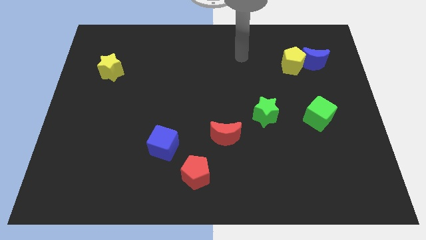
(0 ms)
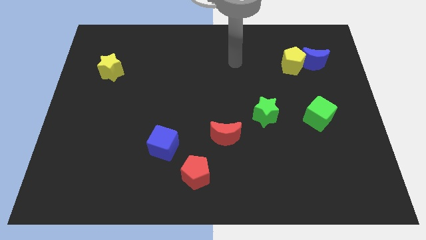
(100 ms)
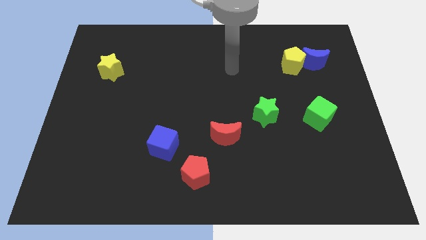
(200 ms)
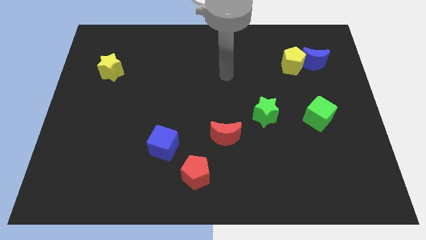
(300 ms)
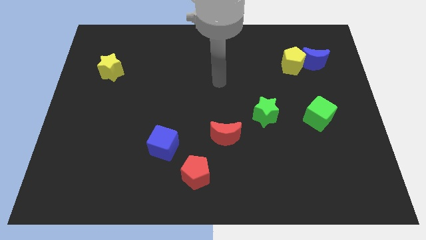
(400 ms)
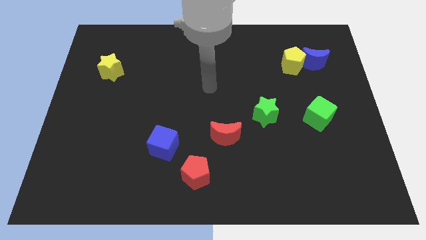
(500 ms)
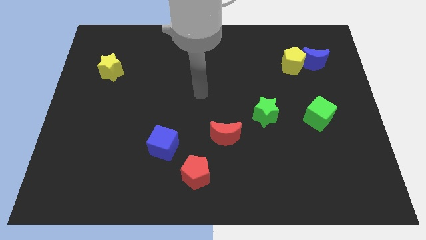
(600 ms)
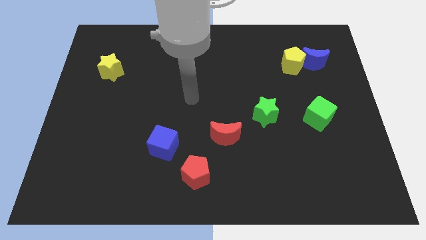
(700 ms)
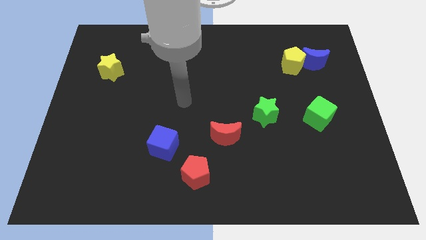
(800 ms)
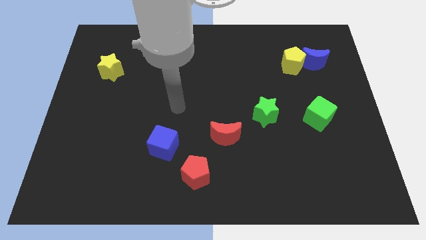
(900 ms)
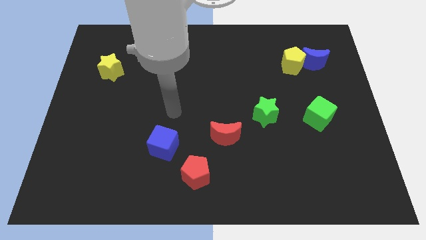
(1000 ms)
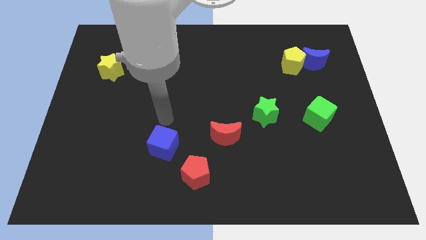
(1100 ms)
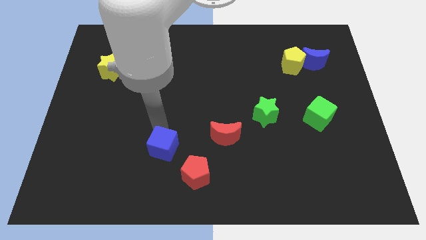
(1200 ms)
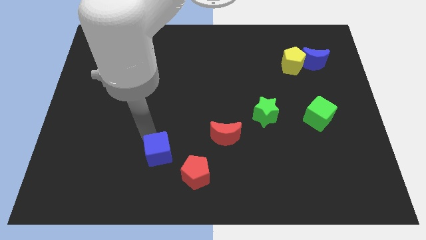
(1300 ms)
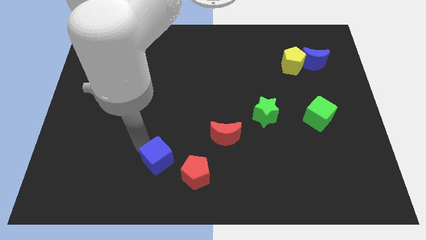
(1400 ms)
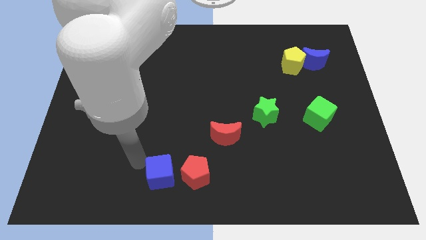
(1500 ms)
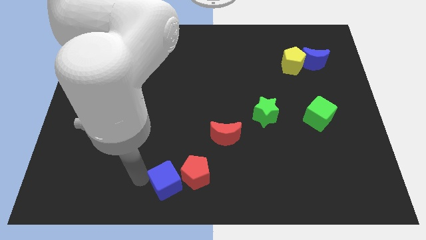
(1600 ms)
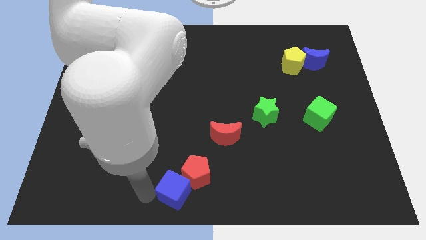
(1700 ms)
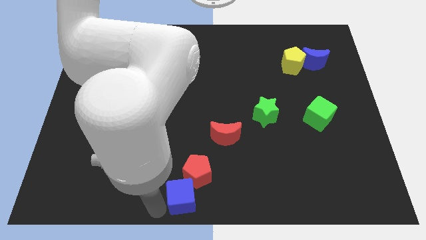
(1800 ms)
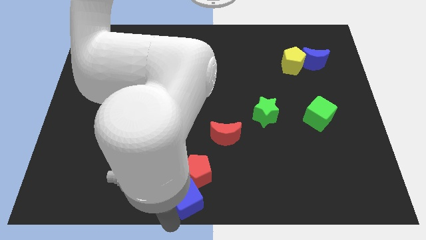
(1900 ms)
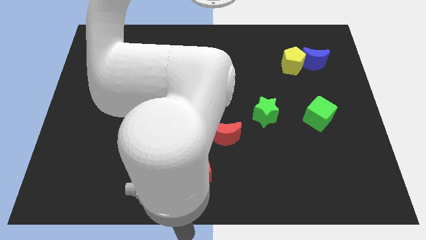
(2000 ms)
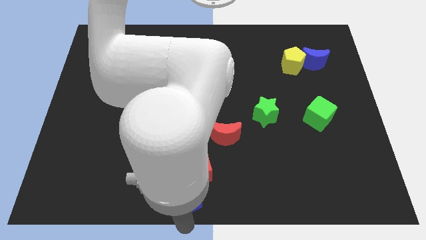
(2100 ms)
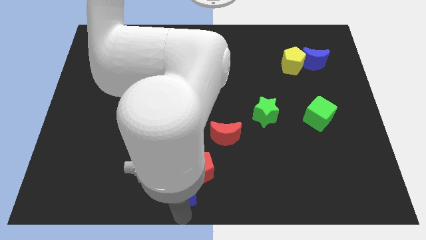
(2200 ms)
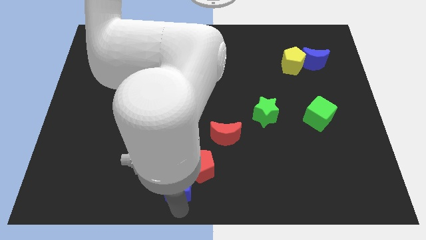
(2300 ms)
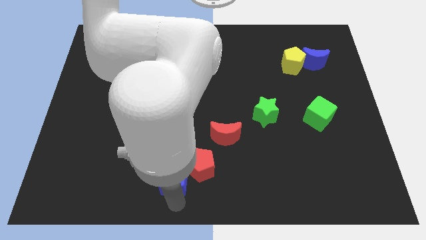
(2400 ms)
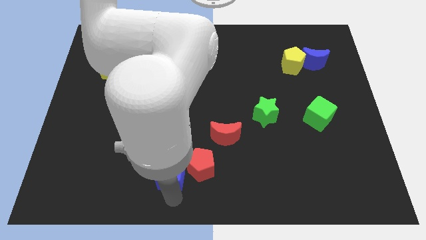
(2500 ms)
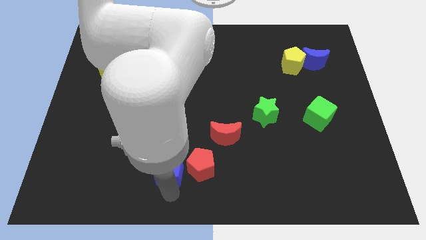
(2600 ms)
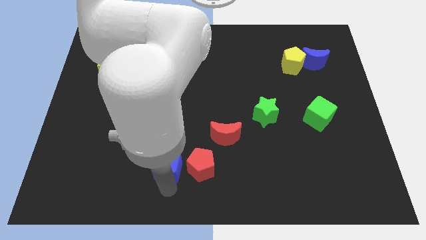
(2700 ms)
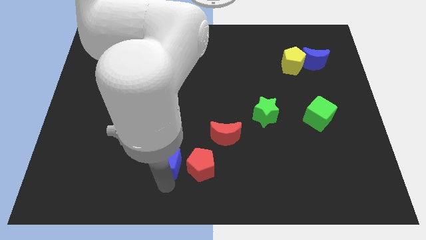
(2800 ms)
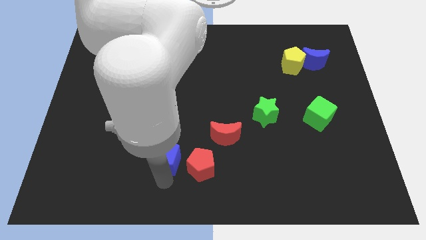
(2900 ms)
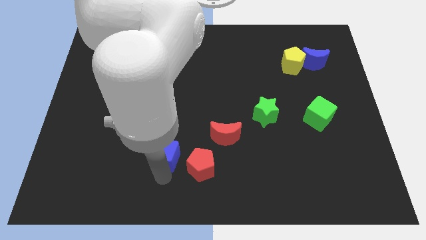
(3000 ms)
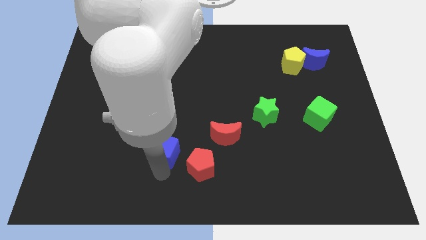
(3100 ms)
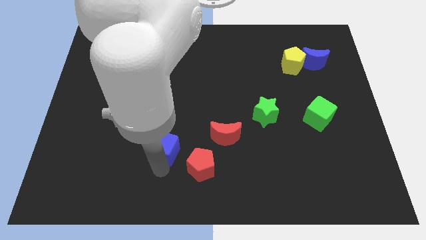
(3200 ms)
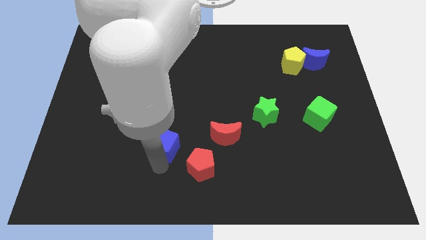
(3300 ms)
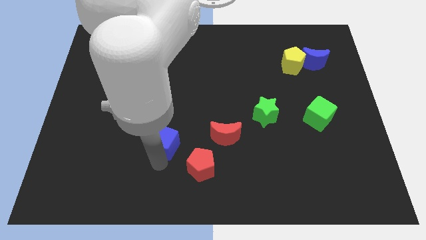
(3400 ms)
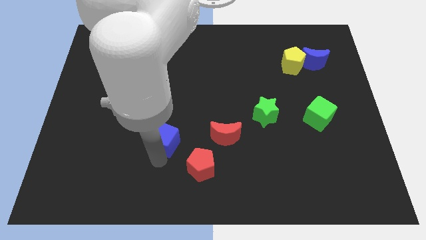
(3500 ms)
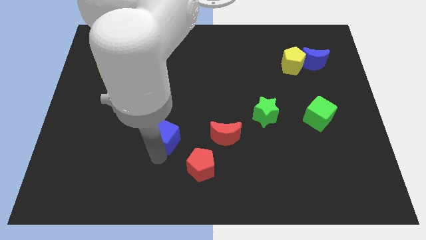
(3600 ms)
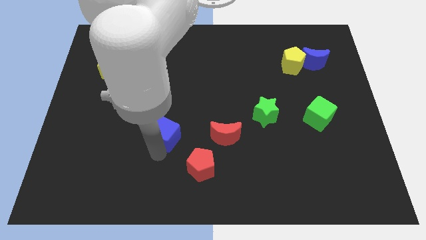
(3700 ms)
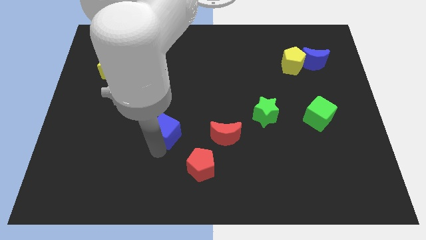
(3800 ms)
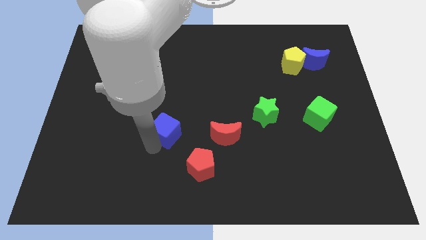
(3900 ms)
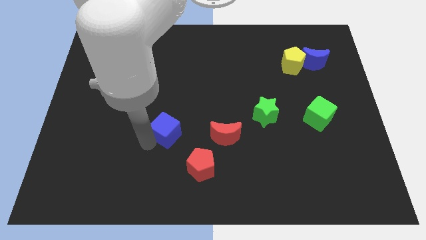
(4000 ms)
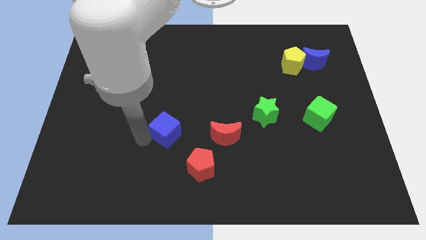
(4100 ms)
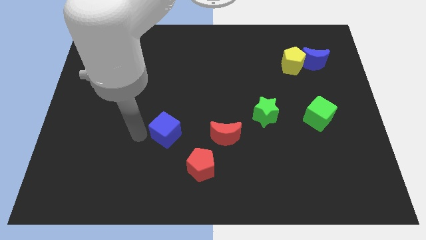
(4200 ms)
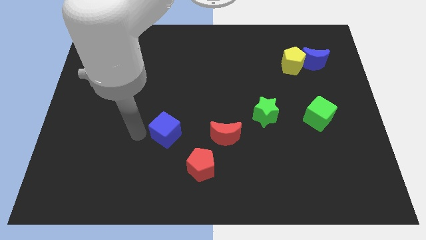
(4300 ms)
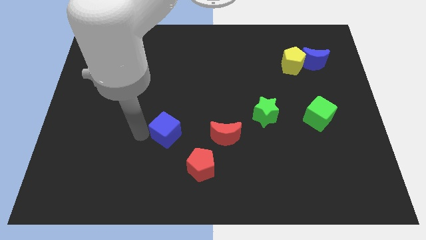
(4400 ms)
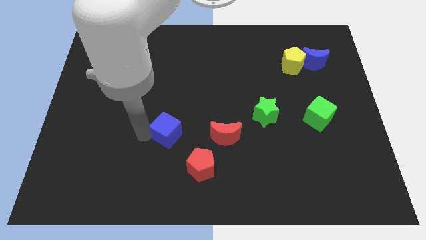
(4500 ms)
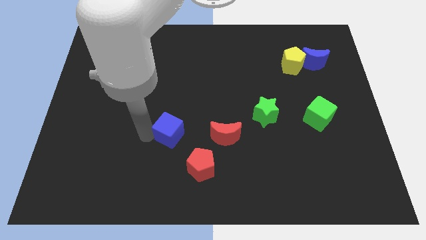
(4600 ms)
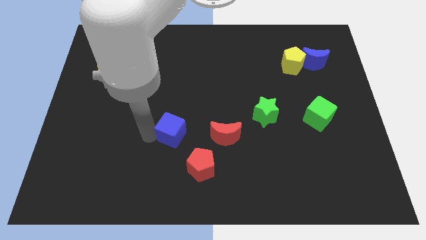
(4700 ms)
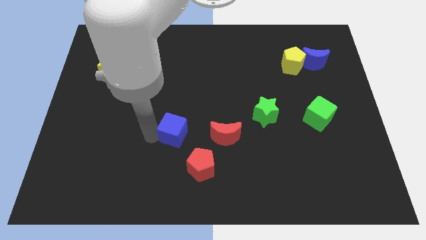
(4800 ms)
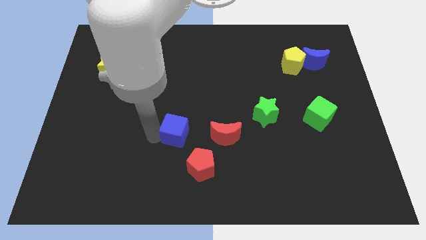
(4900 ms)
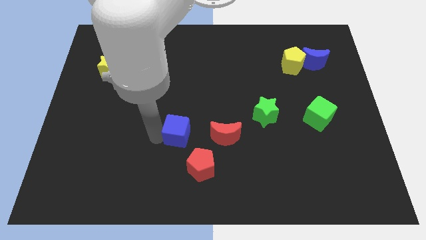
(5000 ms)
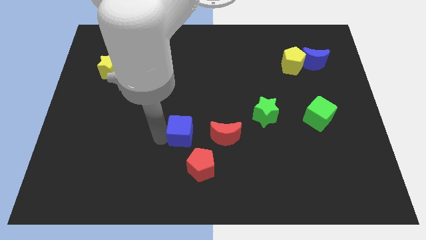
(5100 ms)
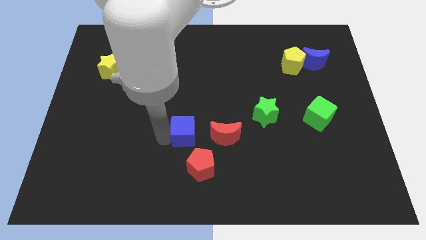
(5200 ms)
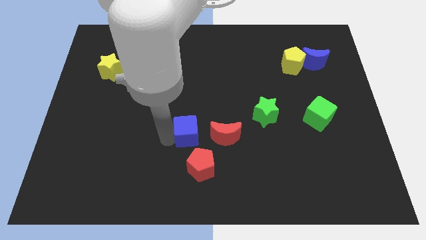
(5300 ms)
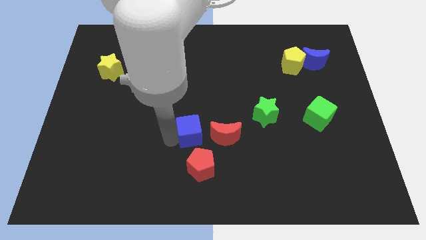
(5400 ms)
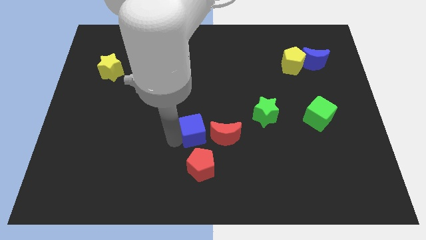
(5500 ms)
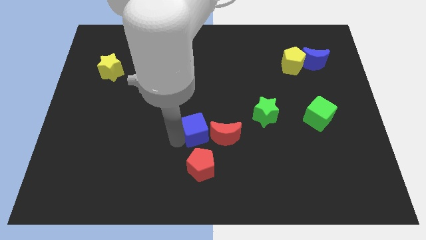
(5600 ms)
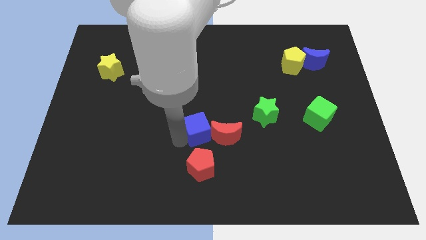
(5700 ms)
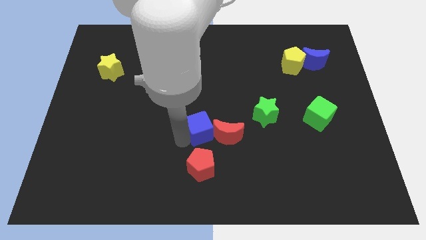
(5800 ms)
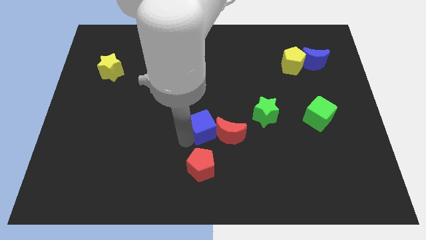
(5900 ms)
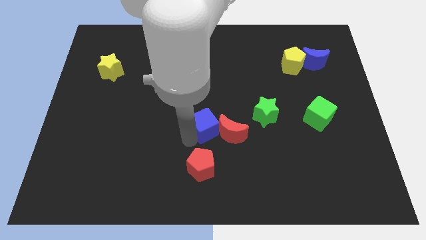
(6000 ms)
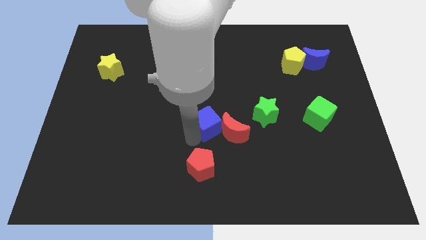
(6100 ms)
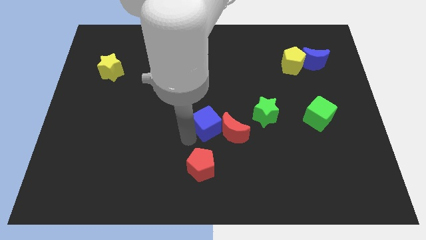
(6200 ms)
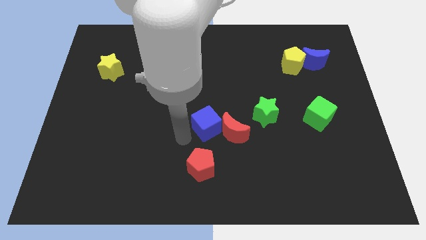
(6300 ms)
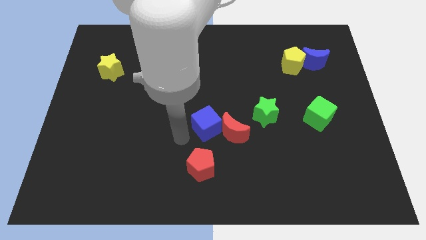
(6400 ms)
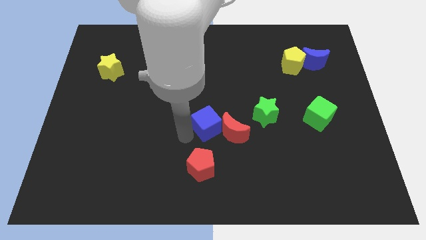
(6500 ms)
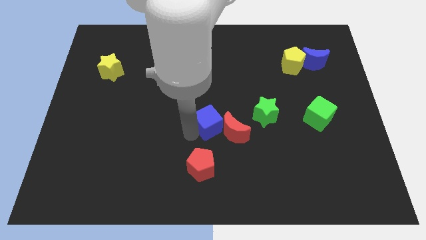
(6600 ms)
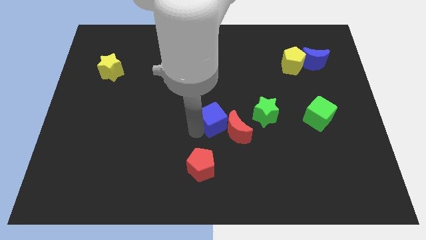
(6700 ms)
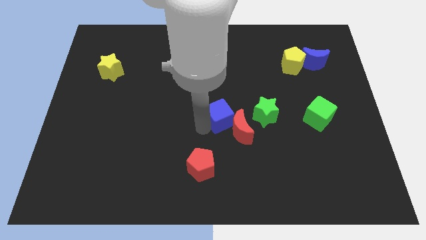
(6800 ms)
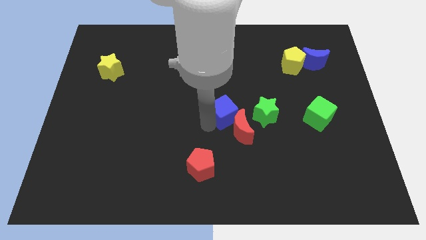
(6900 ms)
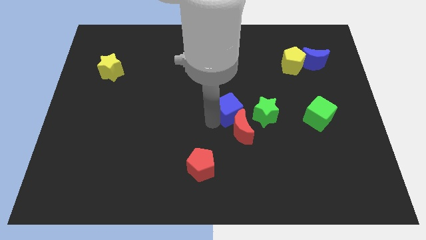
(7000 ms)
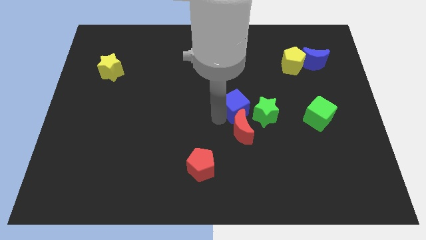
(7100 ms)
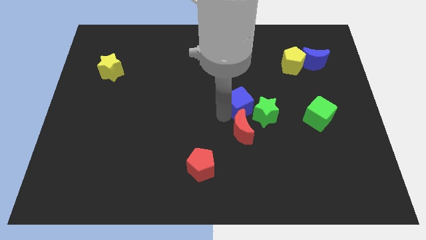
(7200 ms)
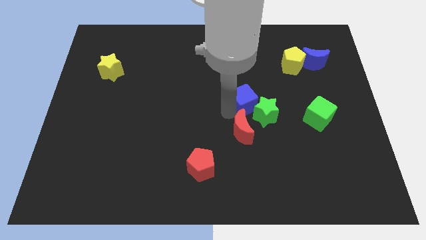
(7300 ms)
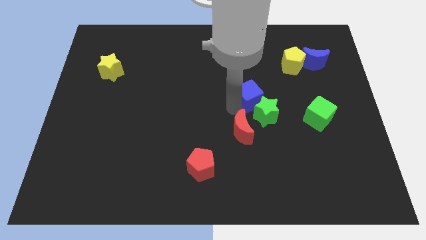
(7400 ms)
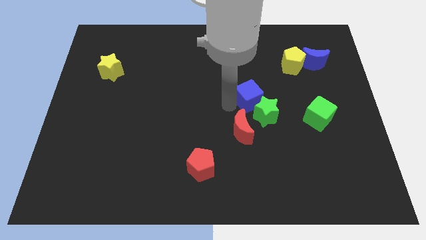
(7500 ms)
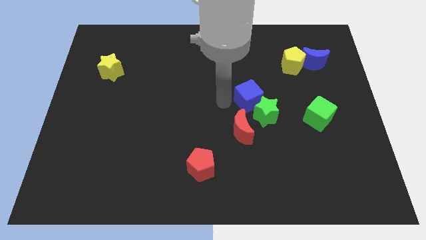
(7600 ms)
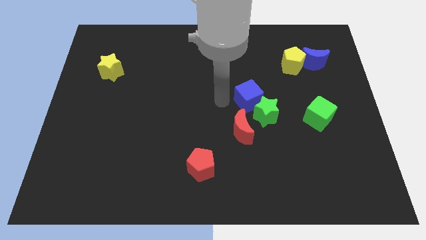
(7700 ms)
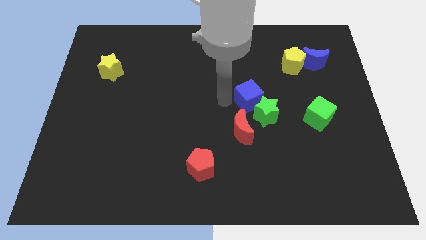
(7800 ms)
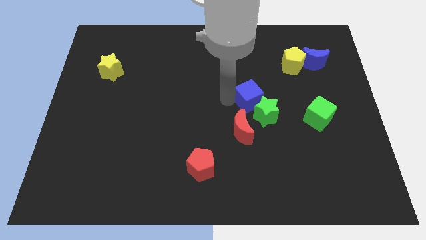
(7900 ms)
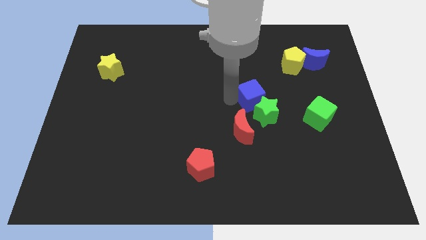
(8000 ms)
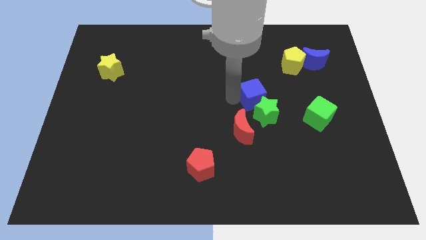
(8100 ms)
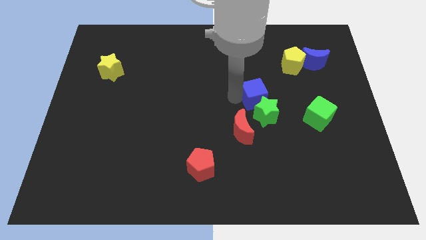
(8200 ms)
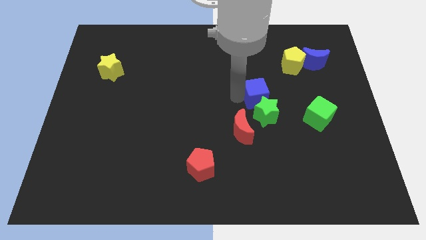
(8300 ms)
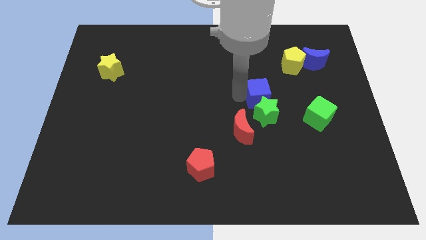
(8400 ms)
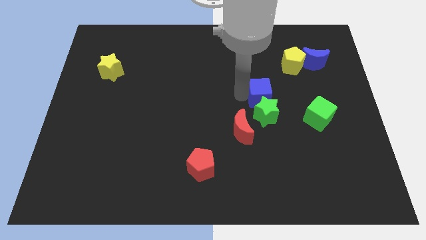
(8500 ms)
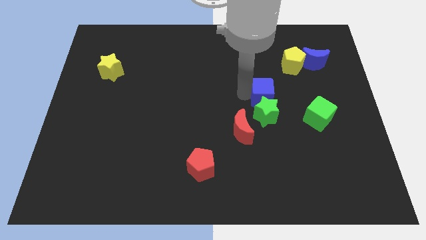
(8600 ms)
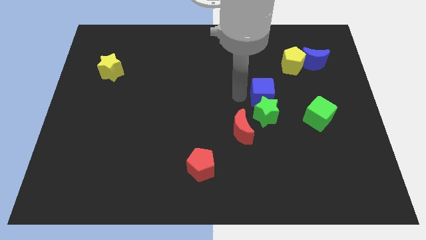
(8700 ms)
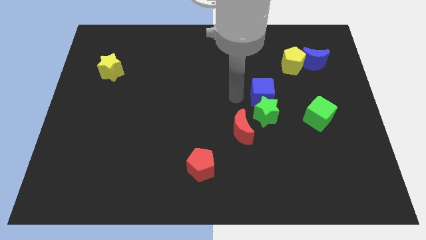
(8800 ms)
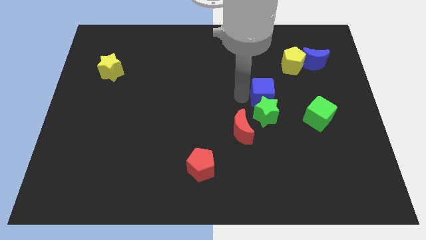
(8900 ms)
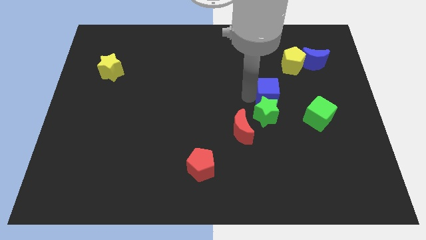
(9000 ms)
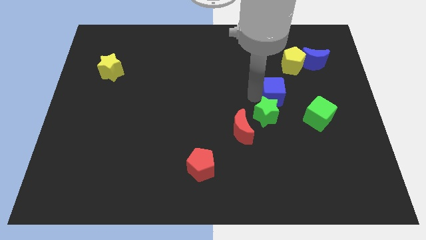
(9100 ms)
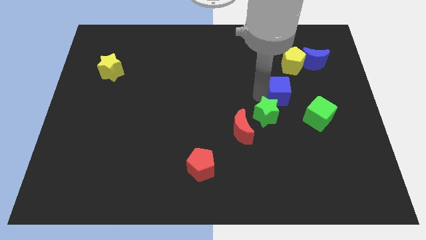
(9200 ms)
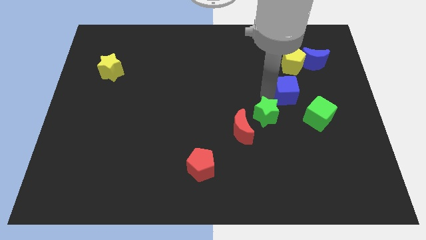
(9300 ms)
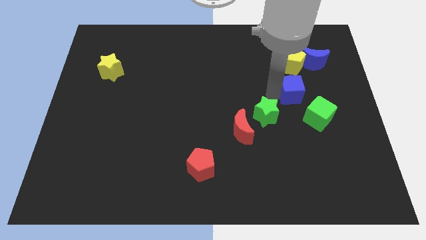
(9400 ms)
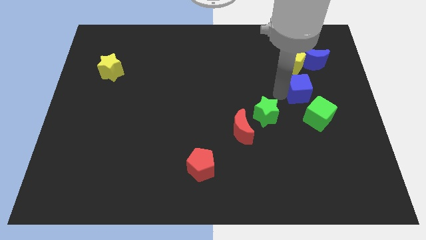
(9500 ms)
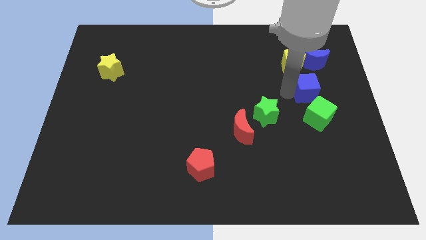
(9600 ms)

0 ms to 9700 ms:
push the blue cube below the blue moon
